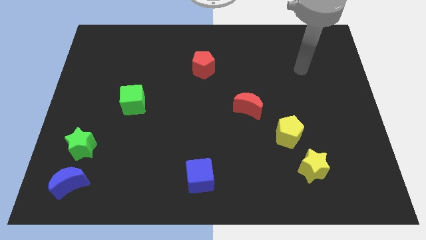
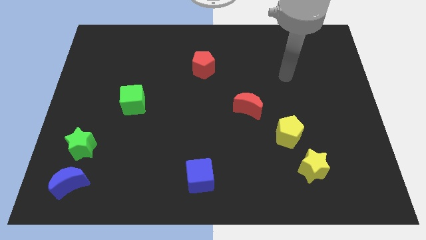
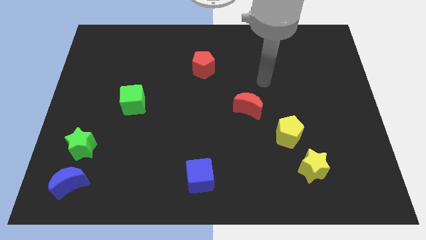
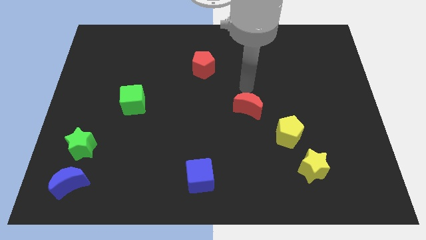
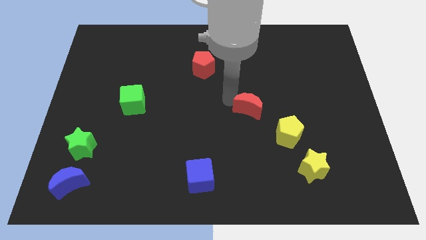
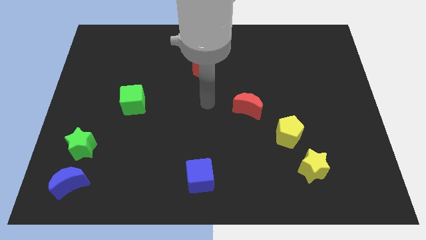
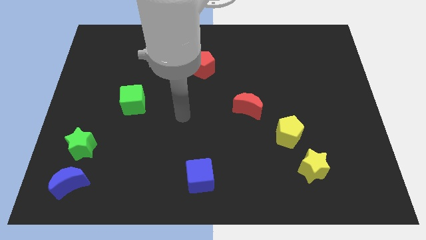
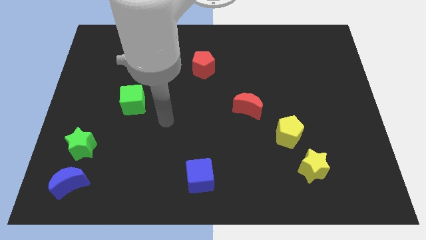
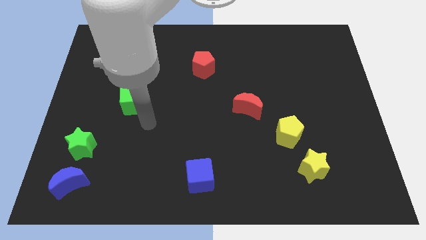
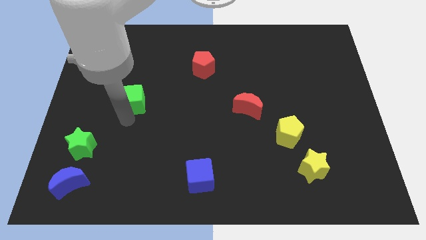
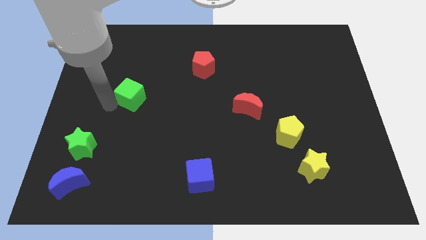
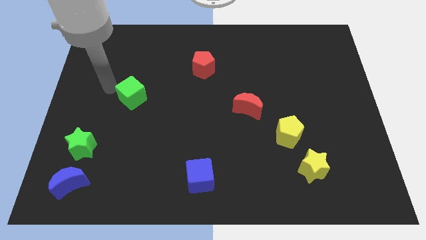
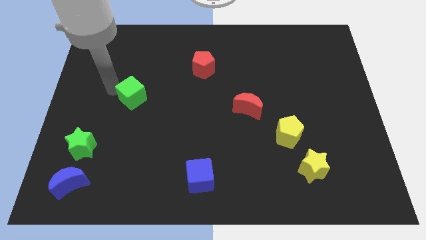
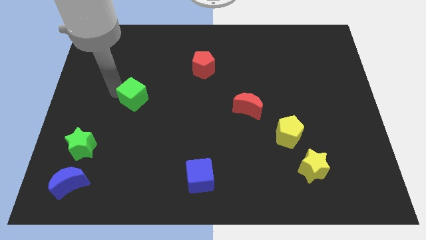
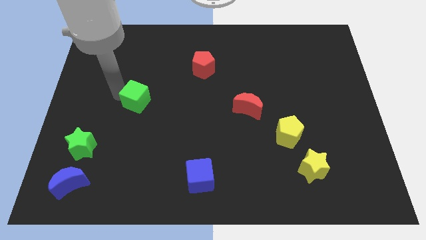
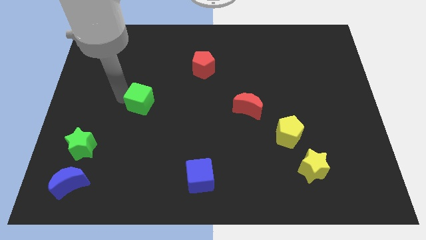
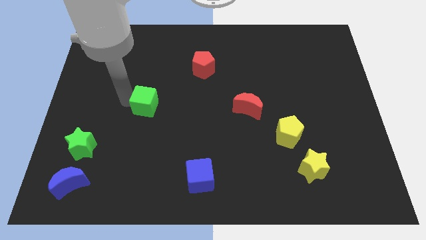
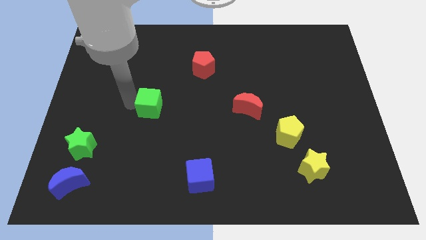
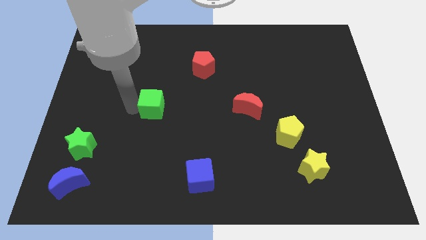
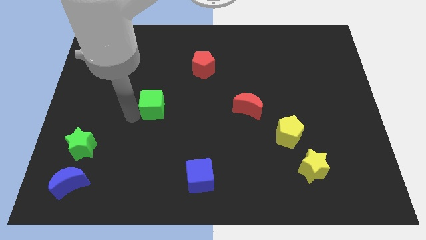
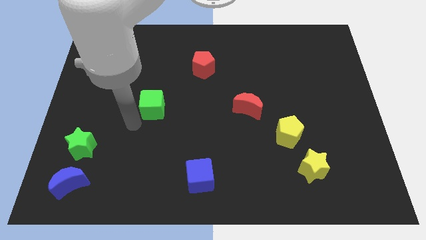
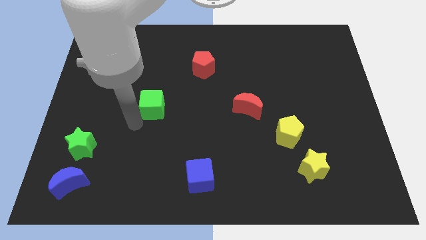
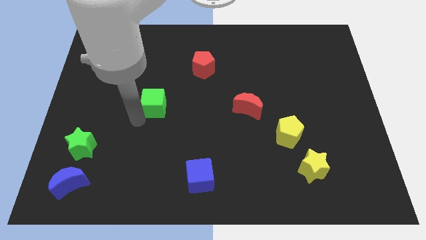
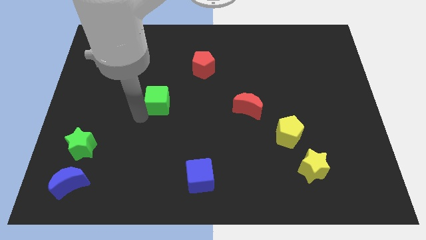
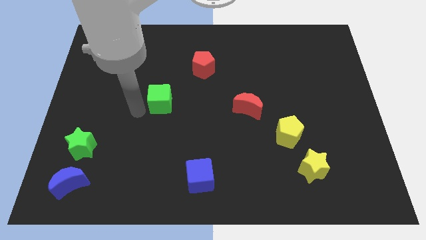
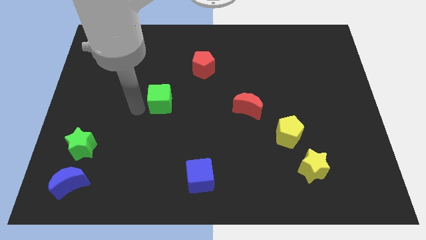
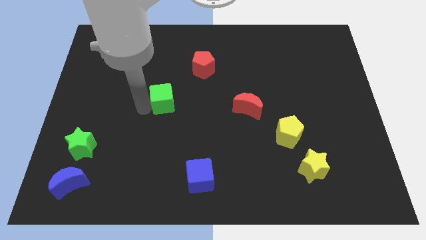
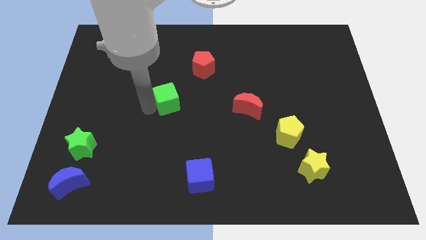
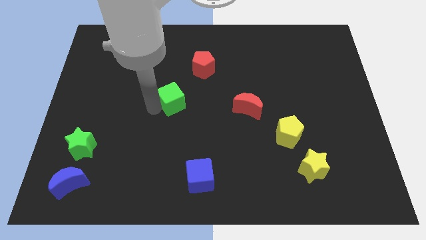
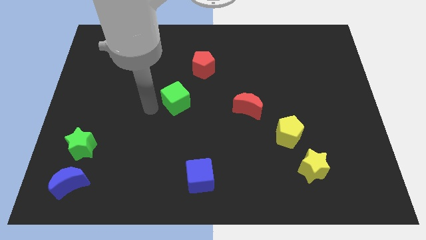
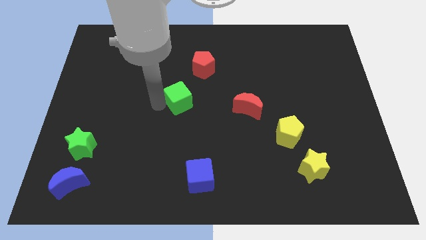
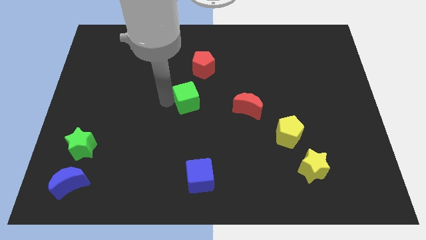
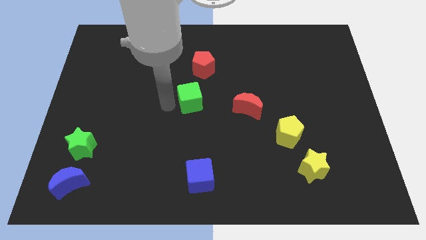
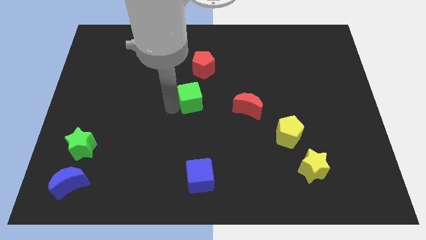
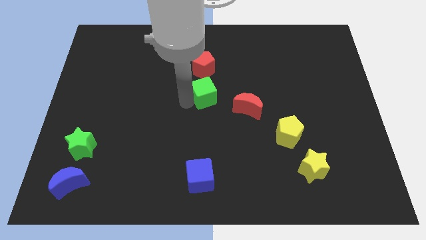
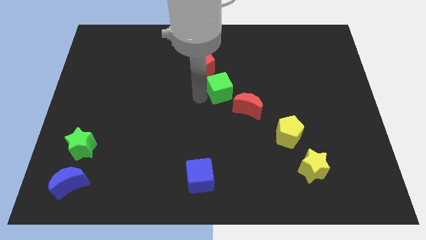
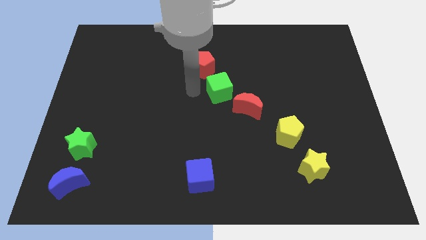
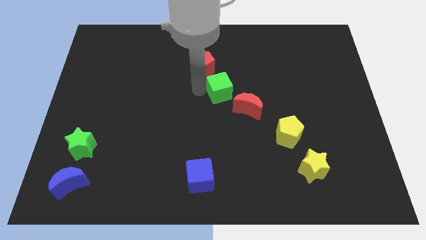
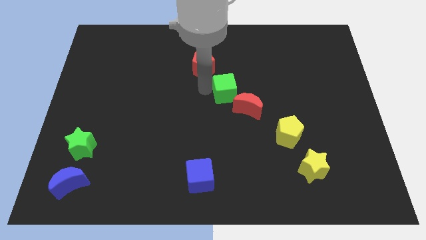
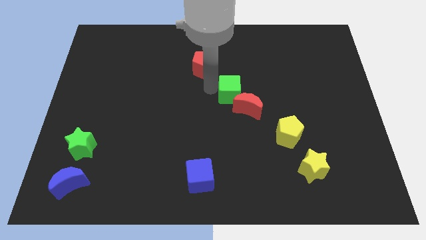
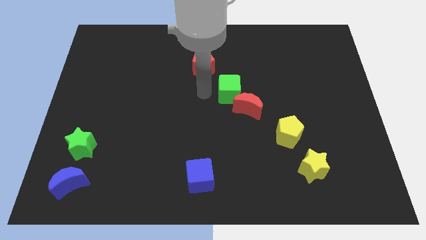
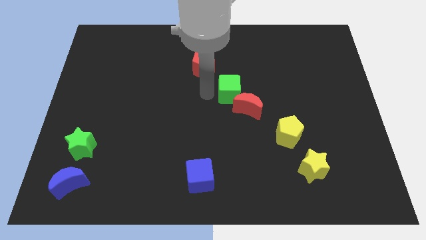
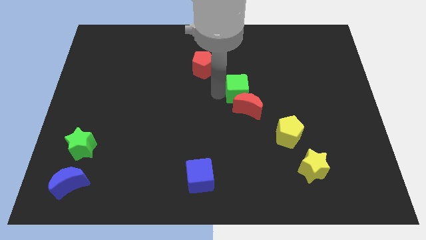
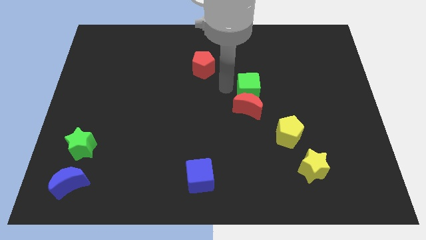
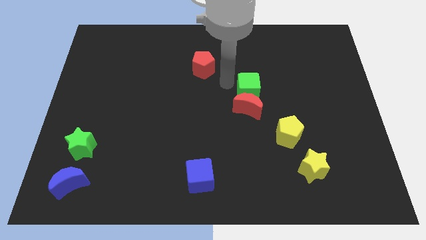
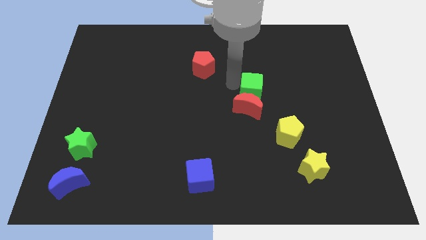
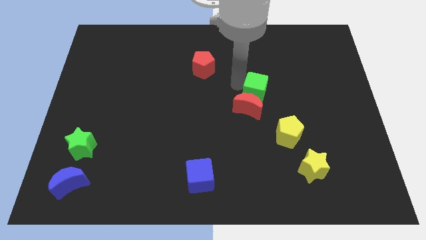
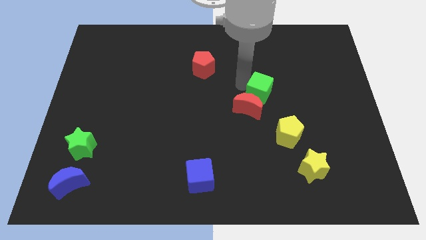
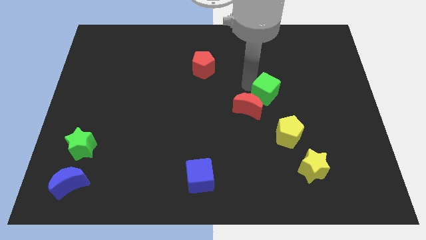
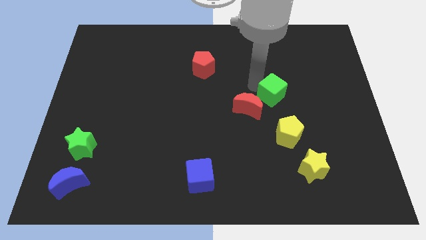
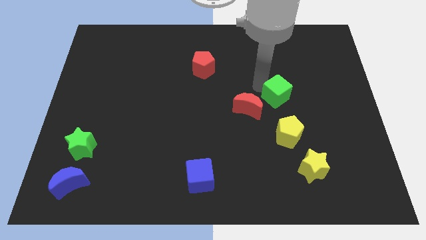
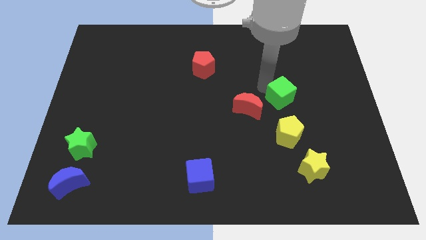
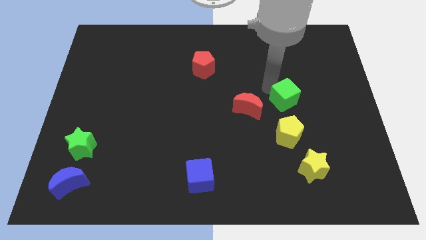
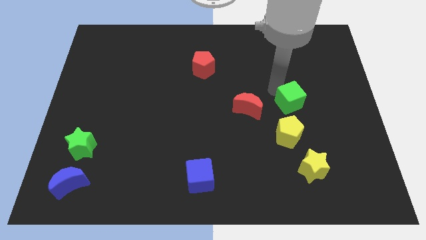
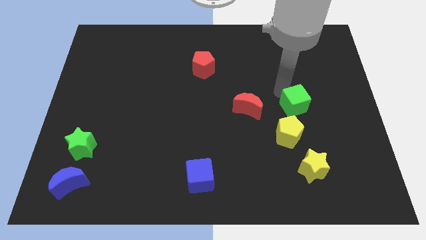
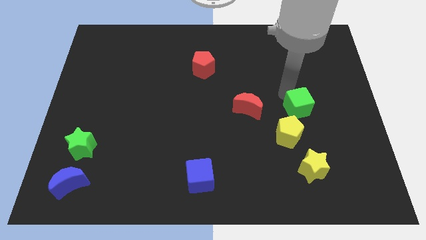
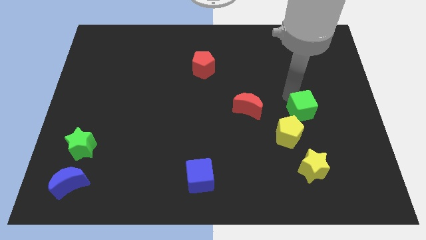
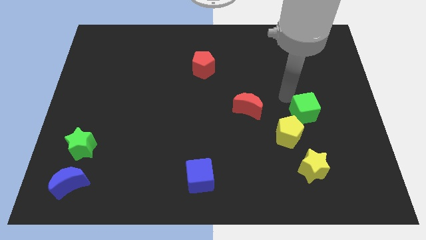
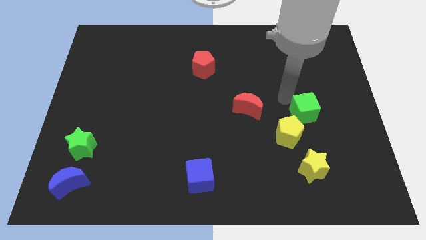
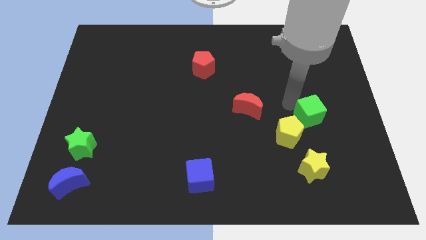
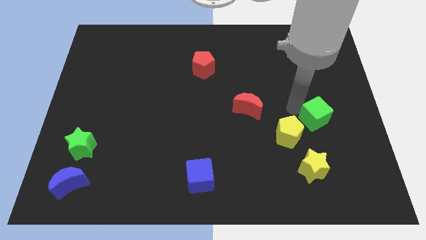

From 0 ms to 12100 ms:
push the green cube to the right side of the yellow pentagon

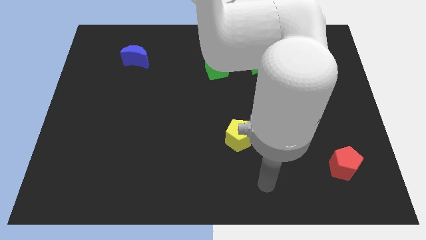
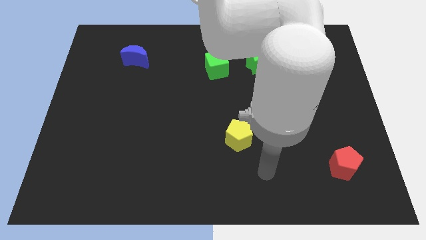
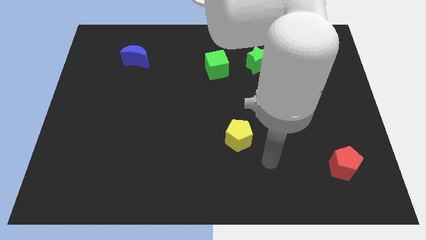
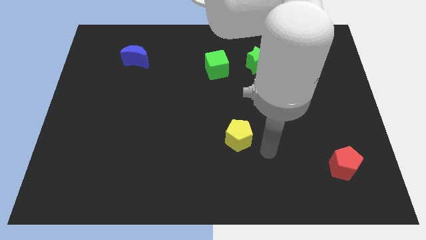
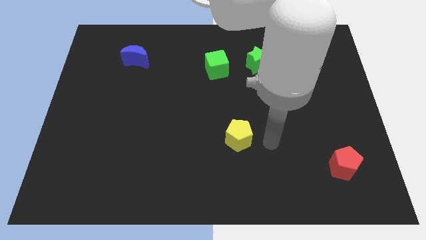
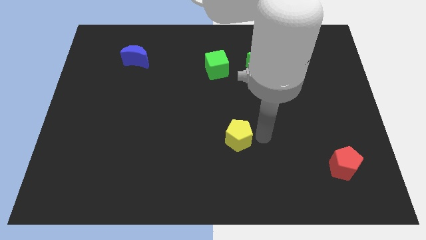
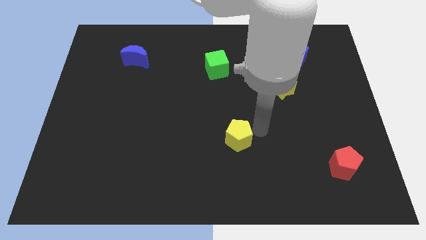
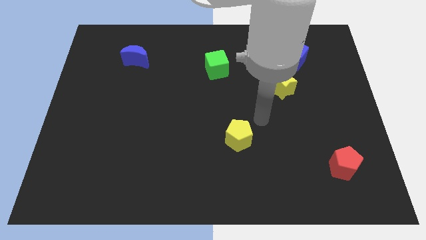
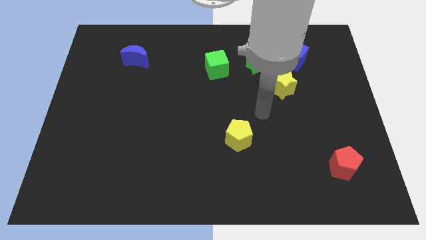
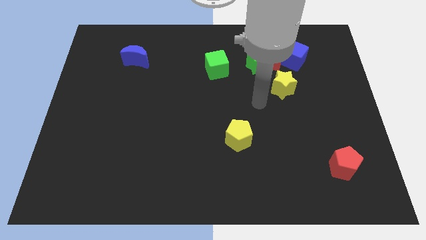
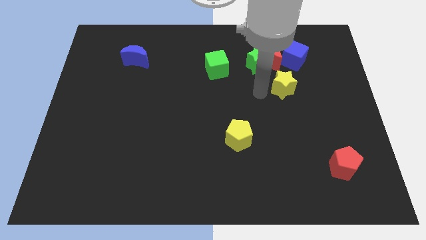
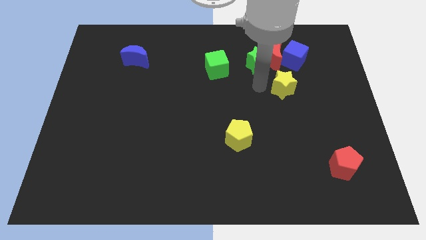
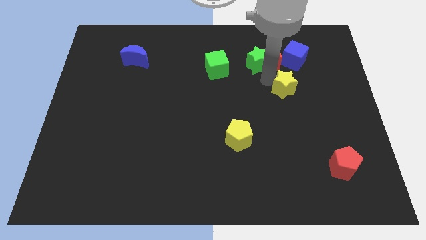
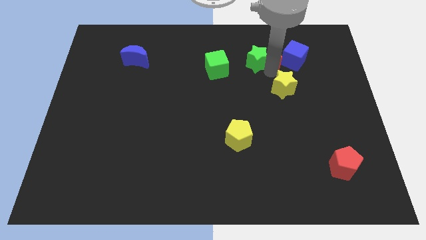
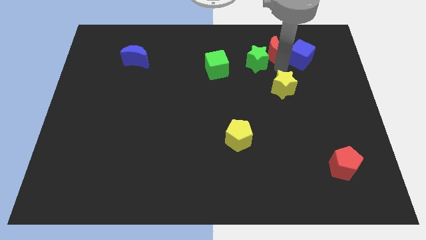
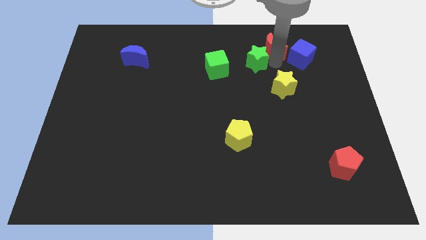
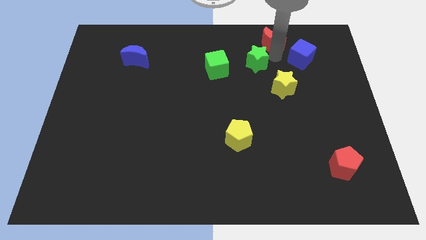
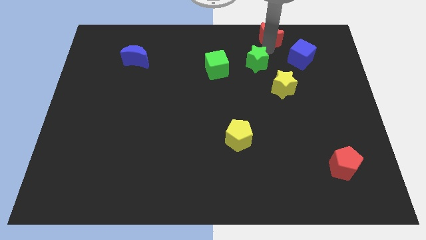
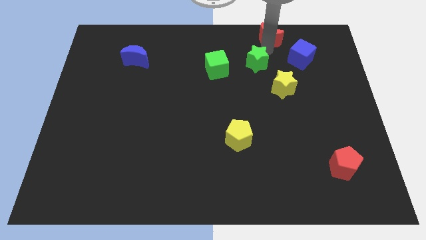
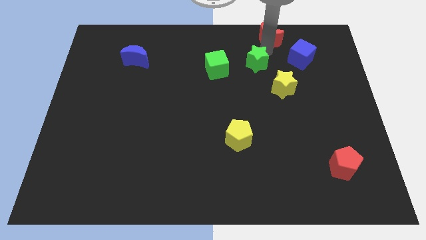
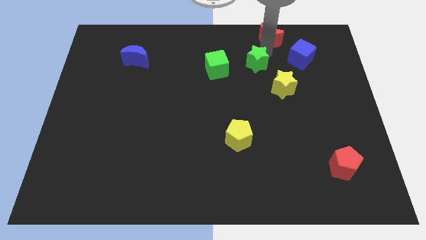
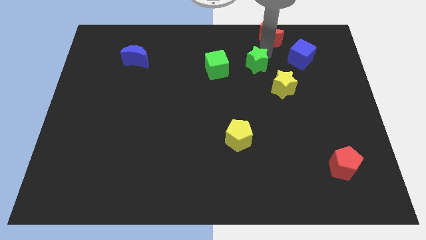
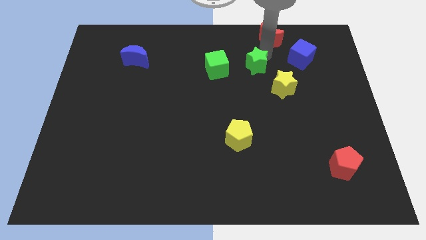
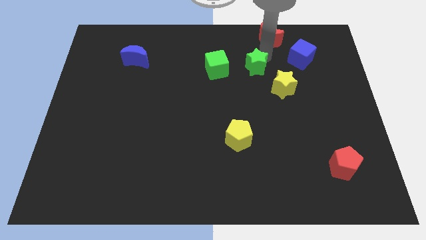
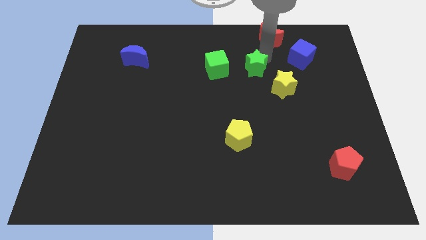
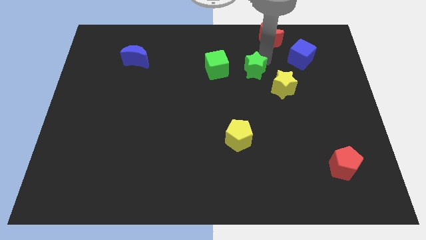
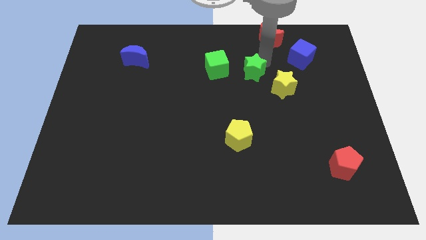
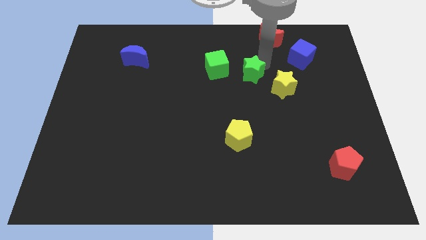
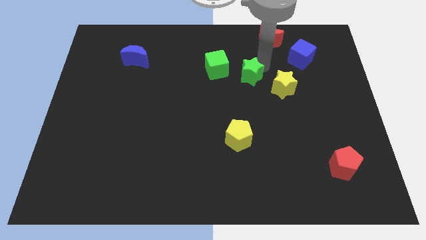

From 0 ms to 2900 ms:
put the green star diagonally down and to the right of the green cube
